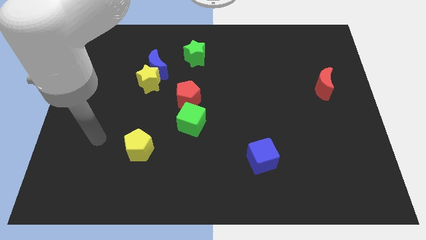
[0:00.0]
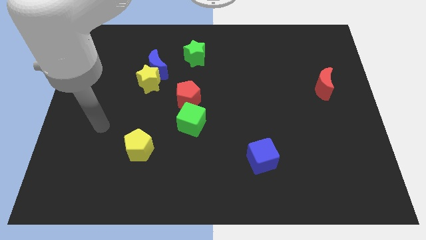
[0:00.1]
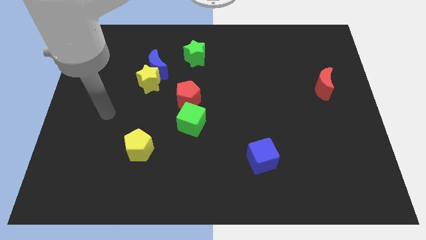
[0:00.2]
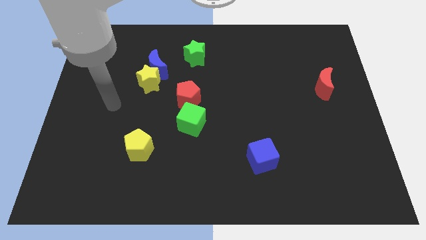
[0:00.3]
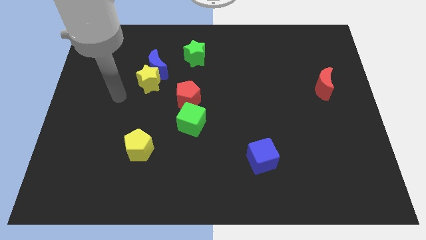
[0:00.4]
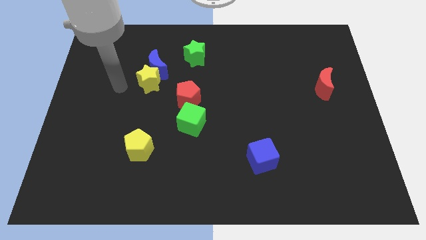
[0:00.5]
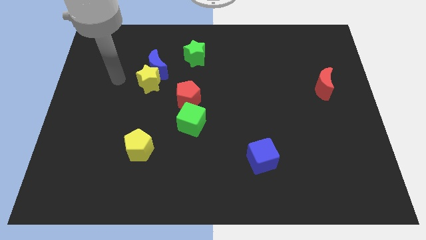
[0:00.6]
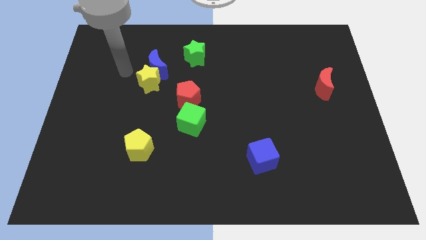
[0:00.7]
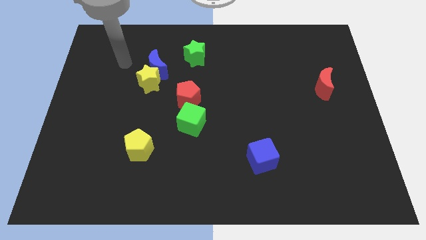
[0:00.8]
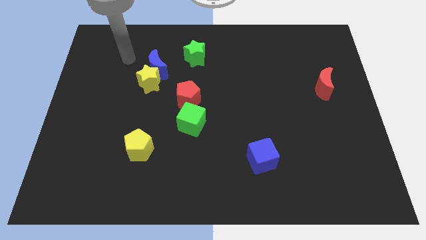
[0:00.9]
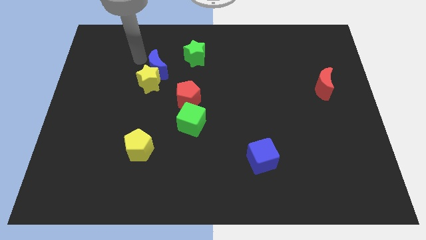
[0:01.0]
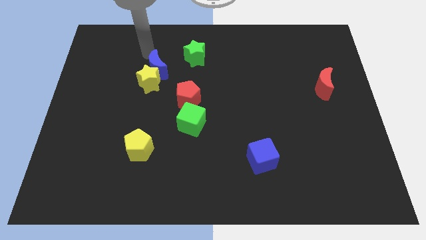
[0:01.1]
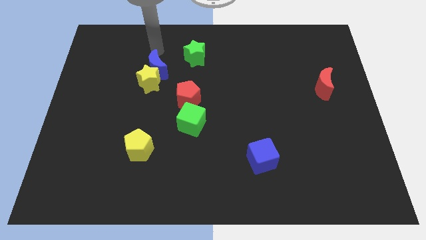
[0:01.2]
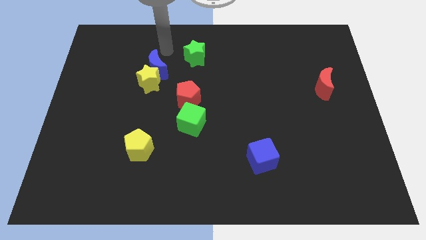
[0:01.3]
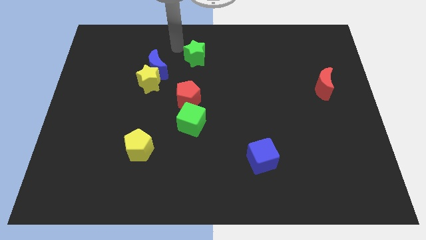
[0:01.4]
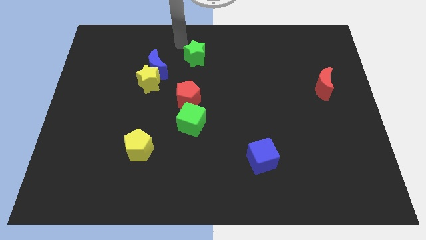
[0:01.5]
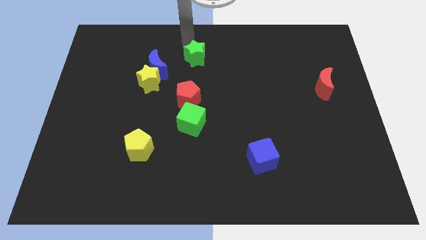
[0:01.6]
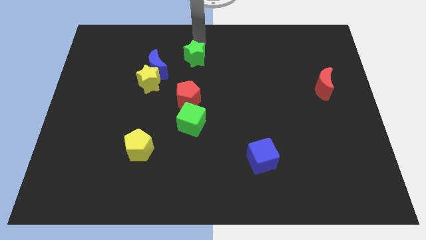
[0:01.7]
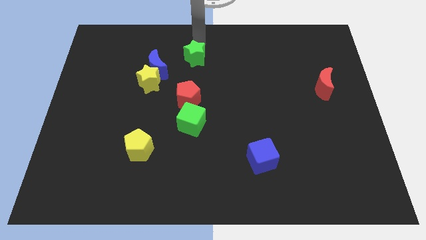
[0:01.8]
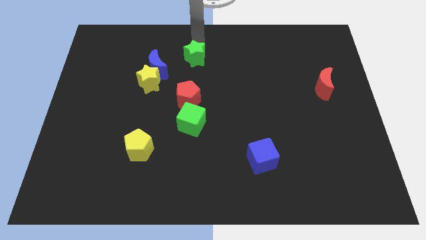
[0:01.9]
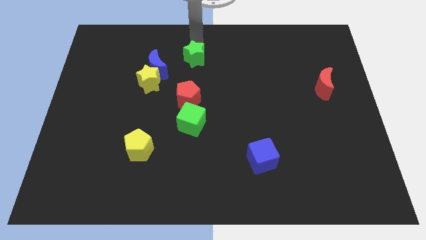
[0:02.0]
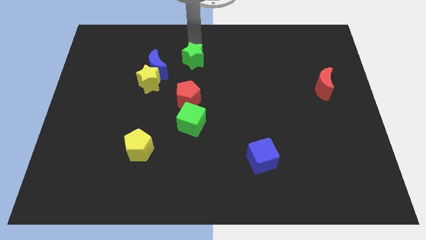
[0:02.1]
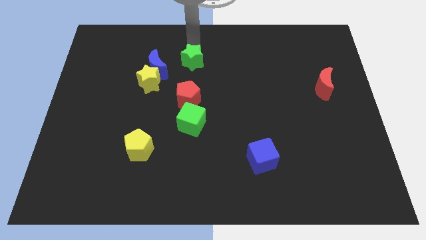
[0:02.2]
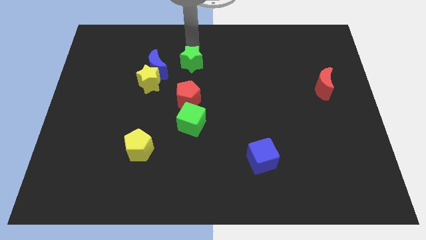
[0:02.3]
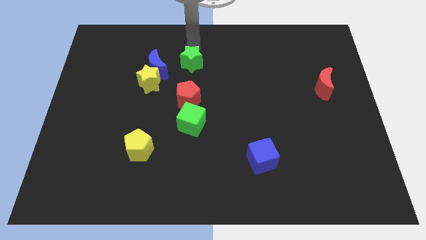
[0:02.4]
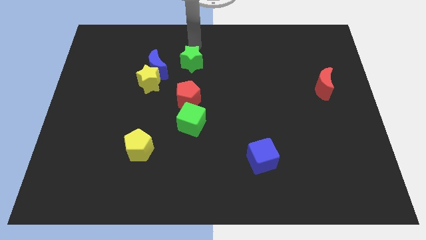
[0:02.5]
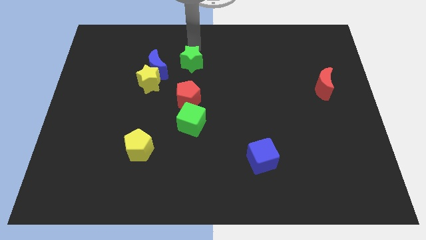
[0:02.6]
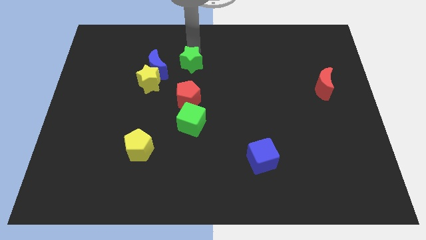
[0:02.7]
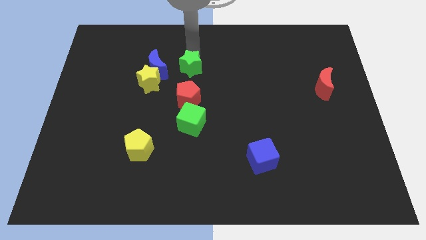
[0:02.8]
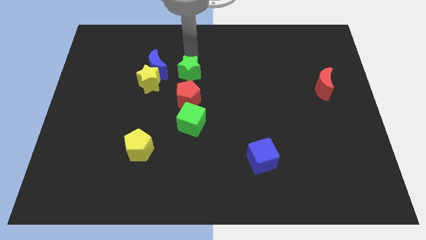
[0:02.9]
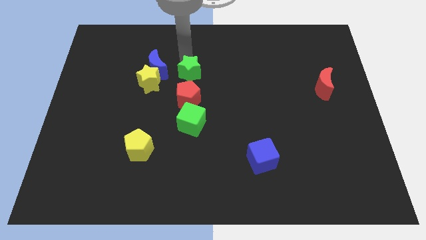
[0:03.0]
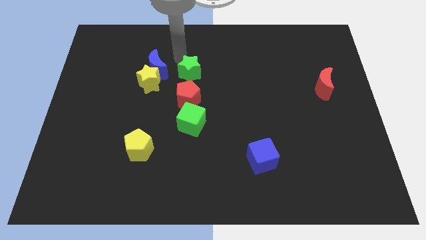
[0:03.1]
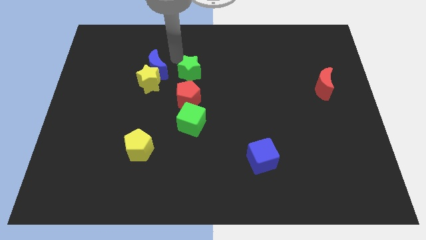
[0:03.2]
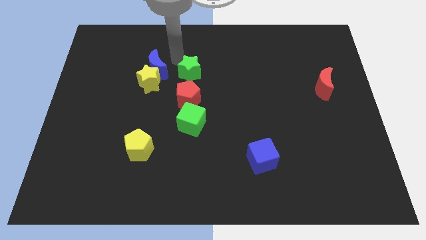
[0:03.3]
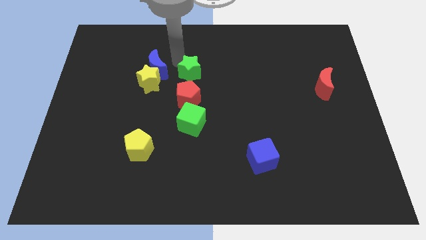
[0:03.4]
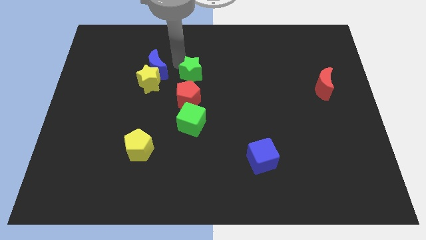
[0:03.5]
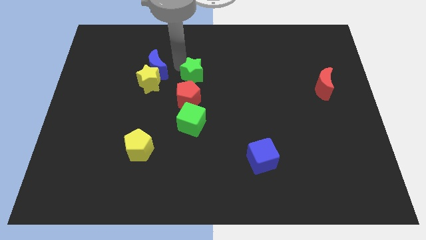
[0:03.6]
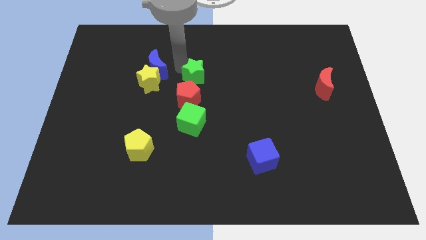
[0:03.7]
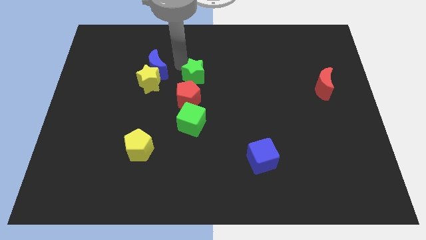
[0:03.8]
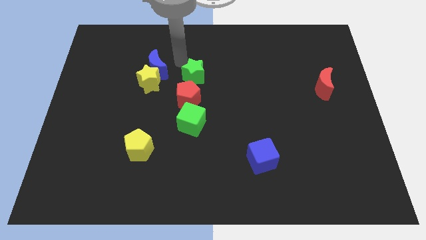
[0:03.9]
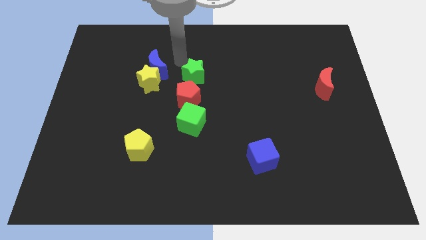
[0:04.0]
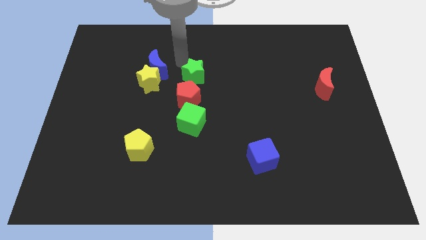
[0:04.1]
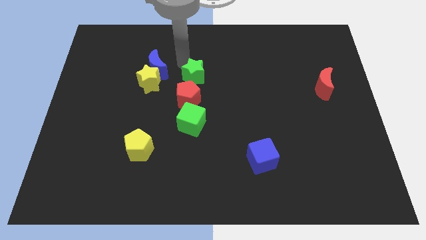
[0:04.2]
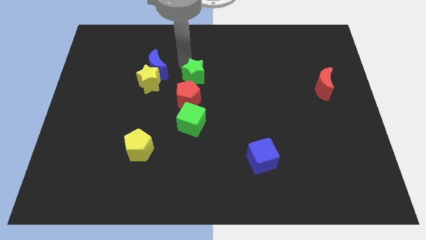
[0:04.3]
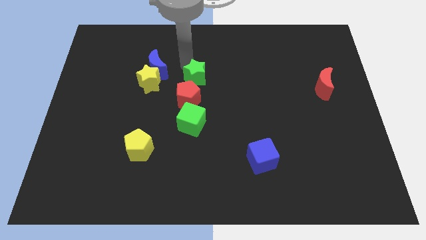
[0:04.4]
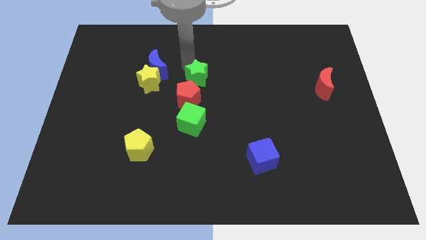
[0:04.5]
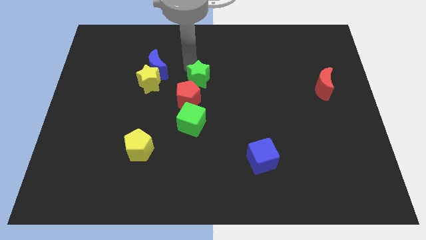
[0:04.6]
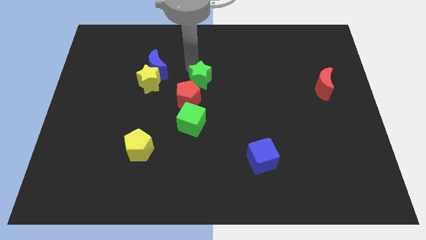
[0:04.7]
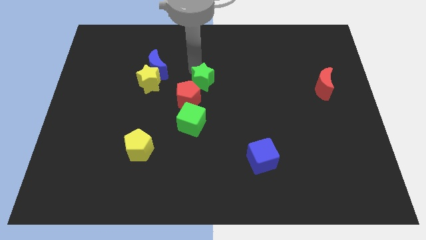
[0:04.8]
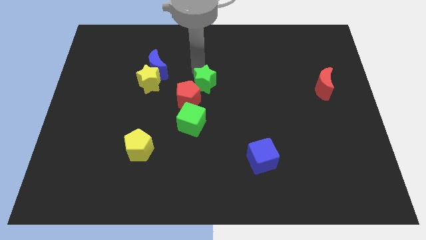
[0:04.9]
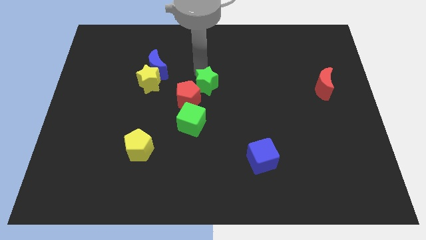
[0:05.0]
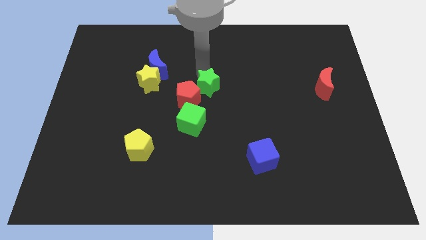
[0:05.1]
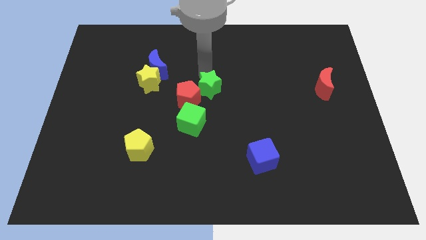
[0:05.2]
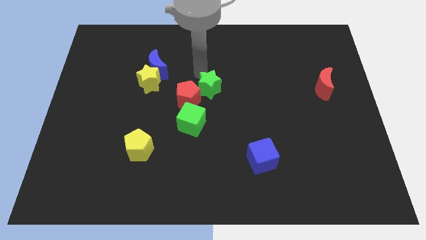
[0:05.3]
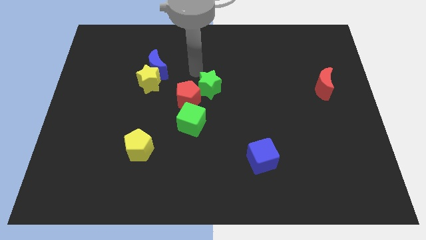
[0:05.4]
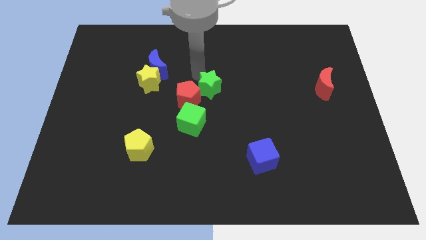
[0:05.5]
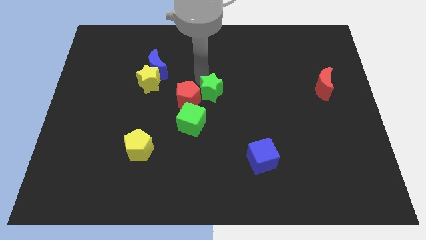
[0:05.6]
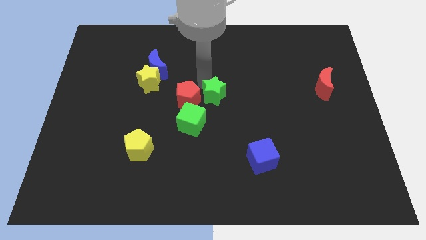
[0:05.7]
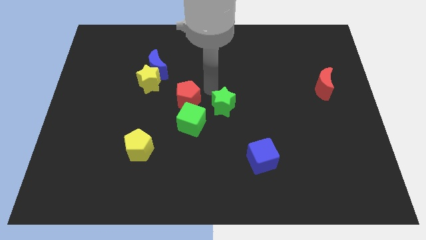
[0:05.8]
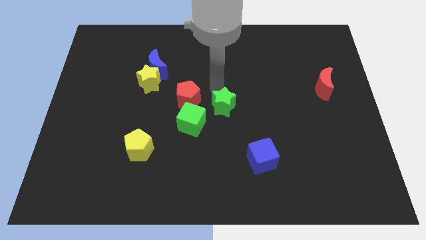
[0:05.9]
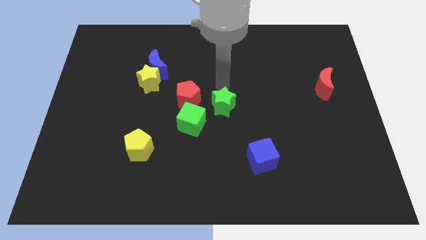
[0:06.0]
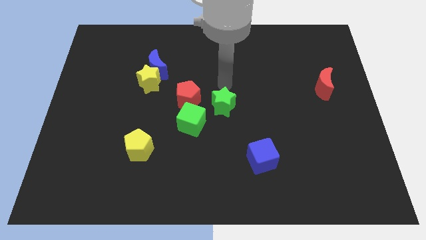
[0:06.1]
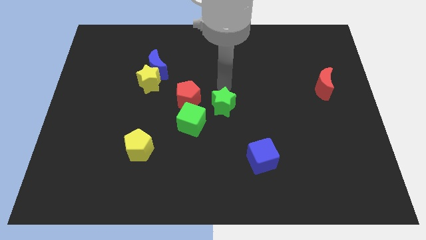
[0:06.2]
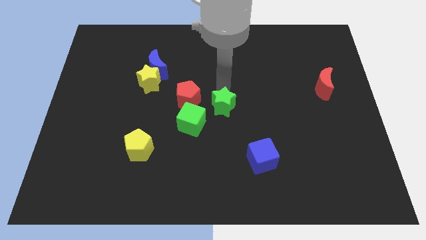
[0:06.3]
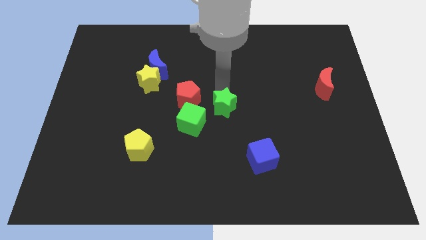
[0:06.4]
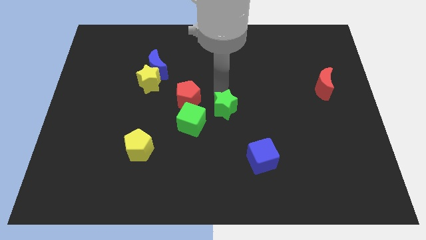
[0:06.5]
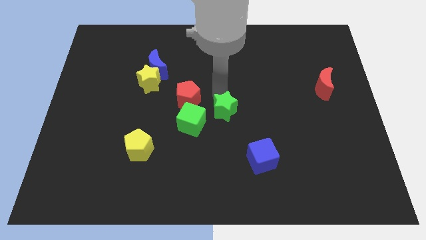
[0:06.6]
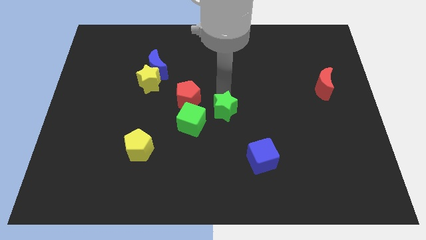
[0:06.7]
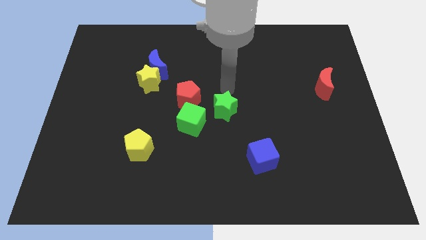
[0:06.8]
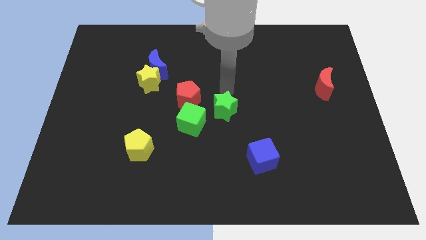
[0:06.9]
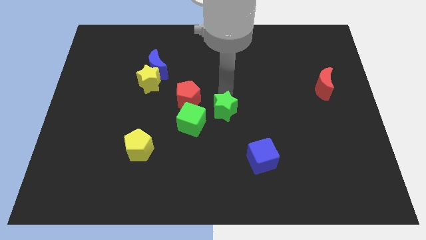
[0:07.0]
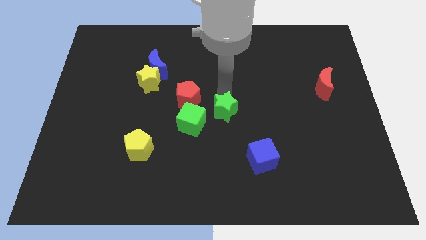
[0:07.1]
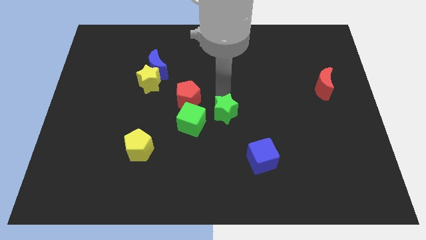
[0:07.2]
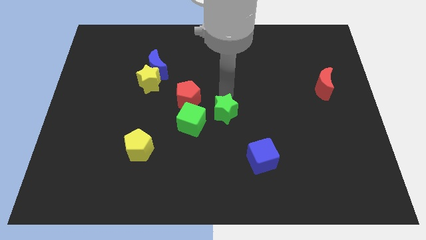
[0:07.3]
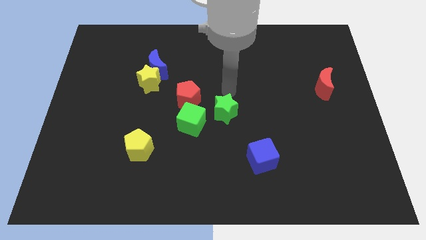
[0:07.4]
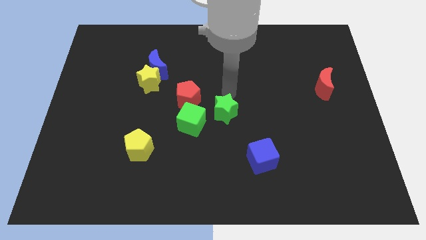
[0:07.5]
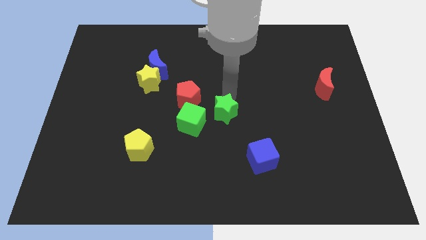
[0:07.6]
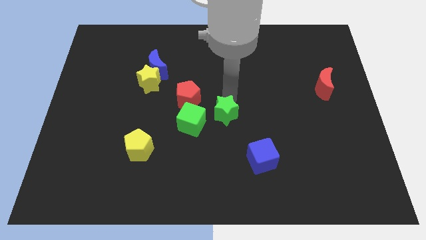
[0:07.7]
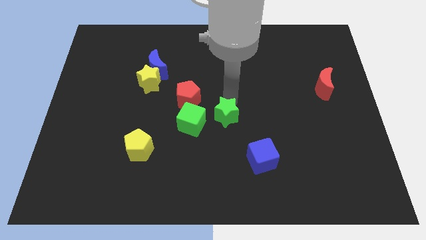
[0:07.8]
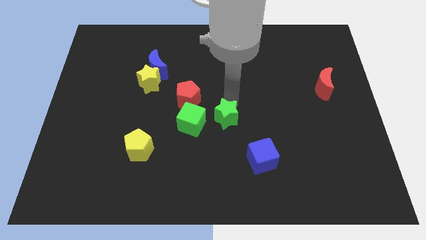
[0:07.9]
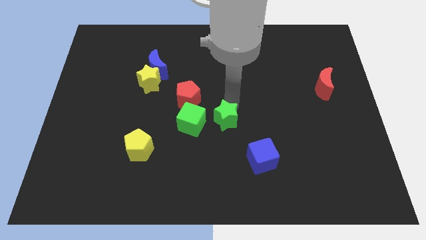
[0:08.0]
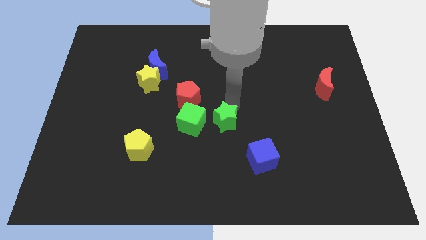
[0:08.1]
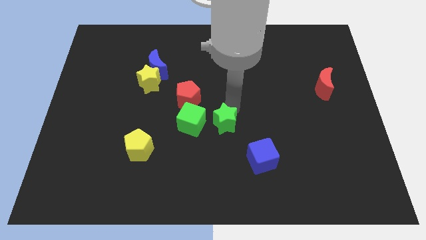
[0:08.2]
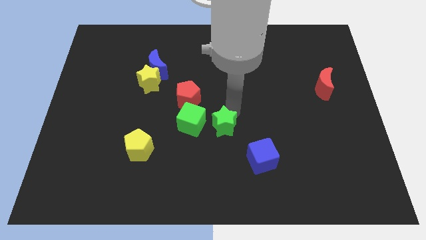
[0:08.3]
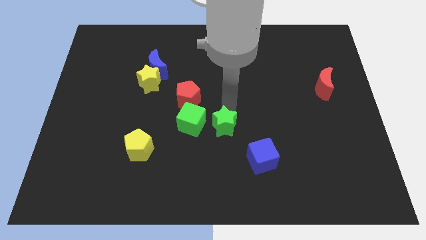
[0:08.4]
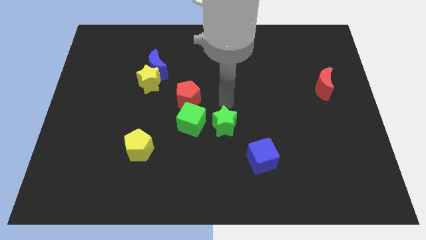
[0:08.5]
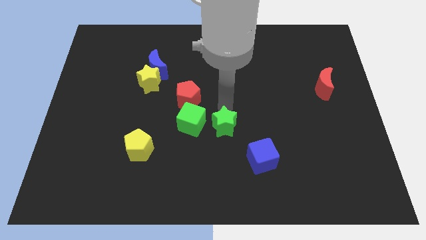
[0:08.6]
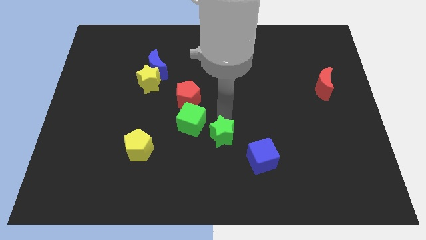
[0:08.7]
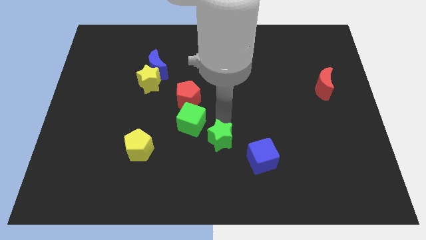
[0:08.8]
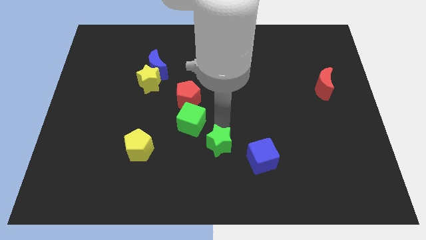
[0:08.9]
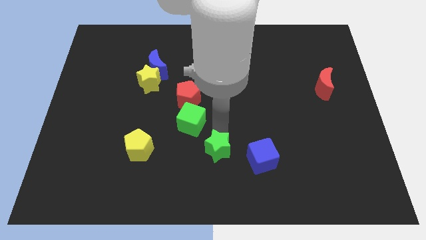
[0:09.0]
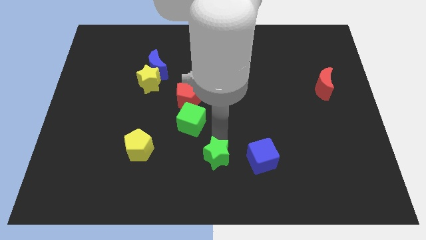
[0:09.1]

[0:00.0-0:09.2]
put the green star to the bottom
